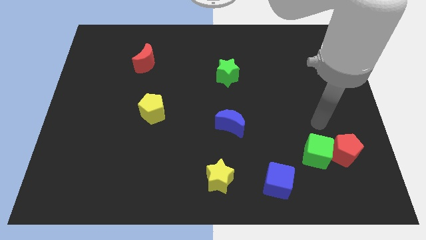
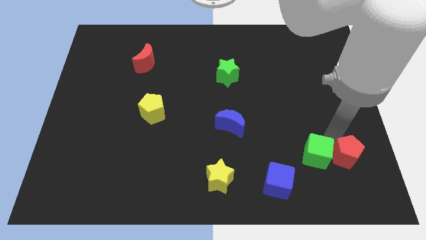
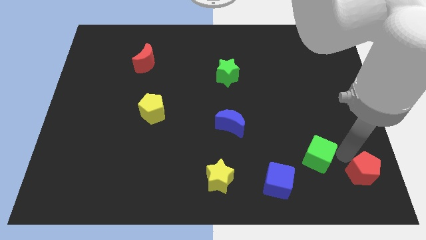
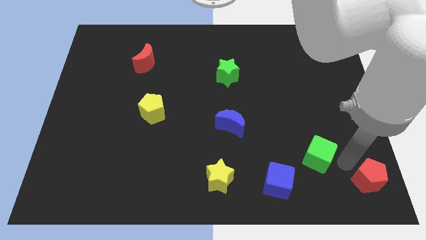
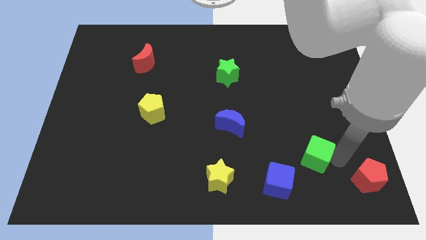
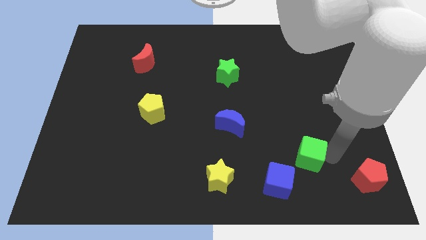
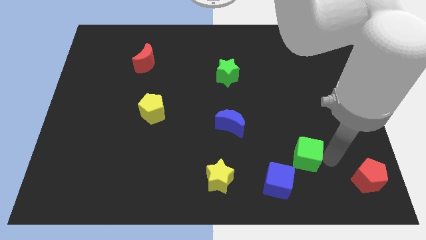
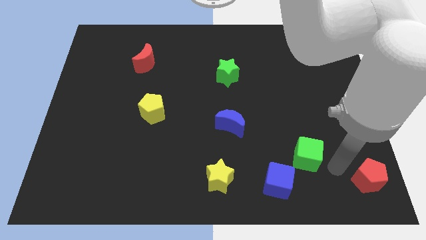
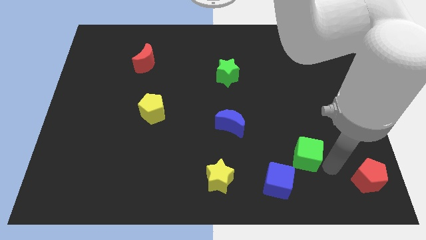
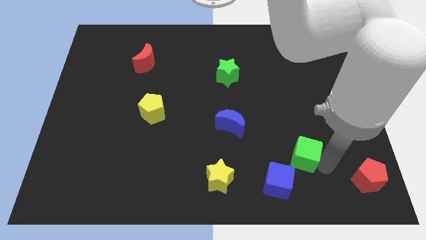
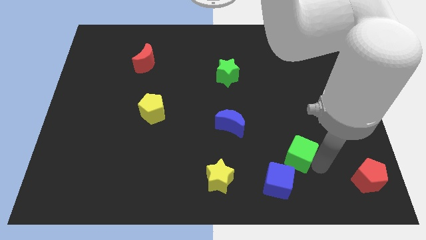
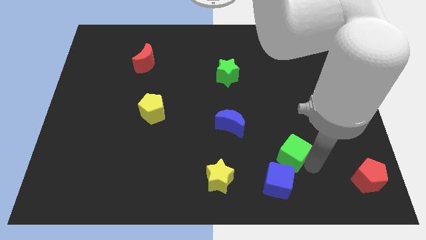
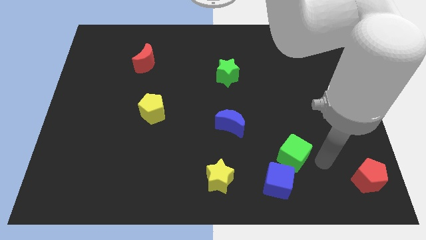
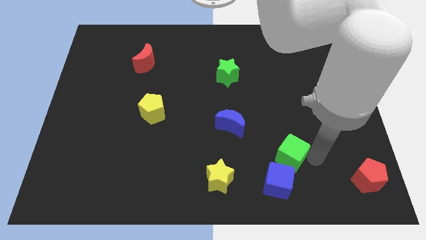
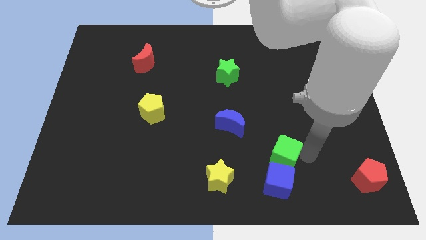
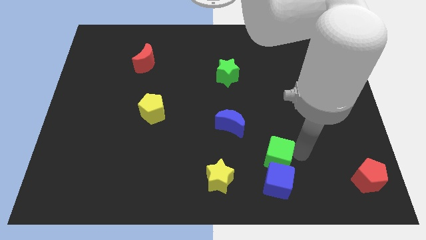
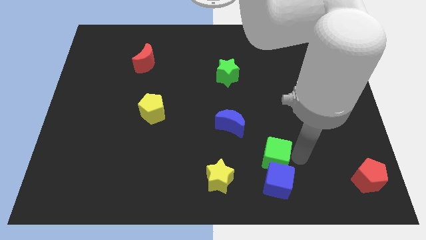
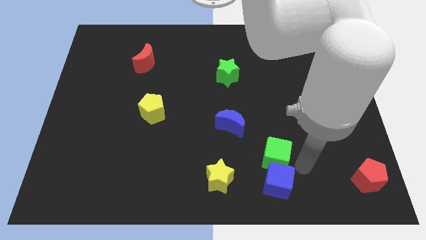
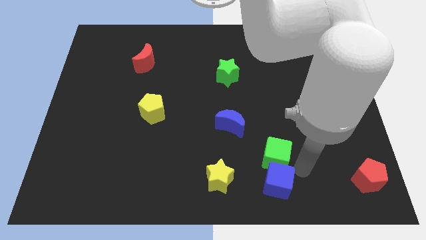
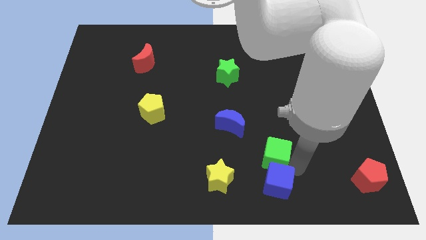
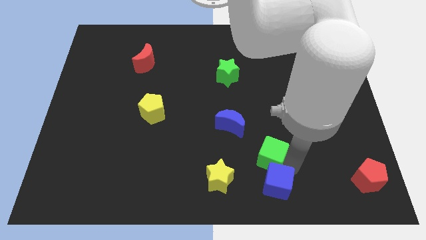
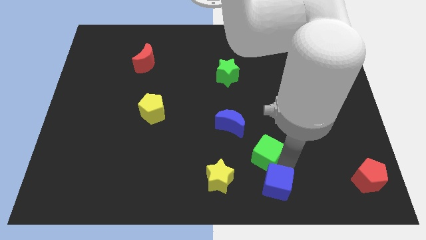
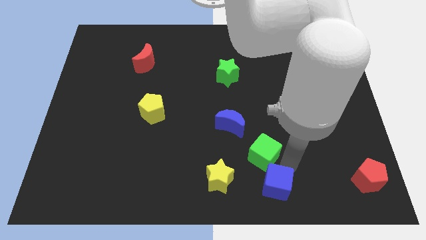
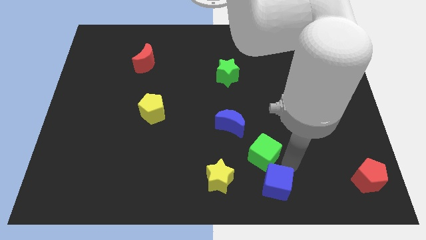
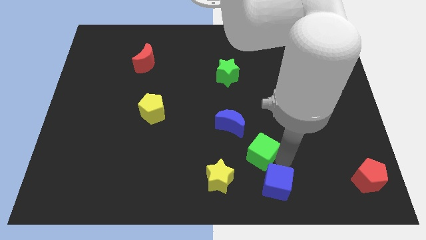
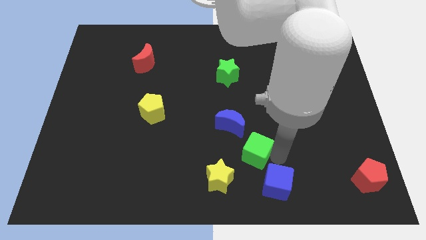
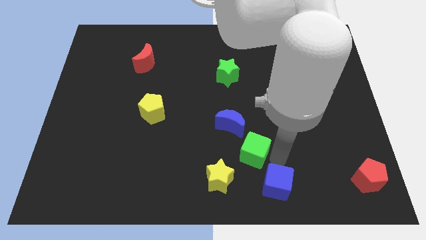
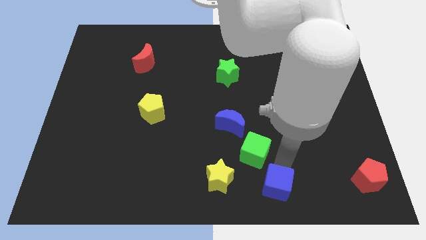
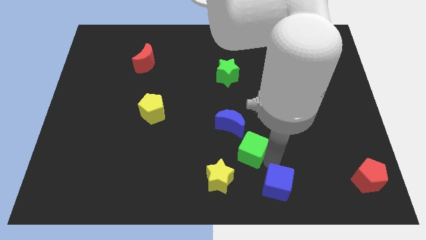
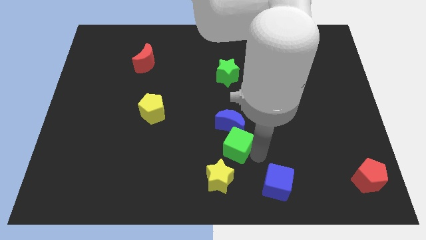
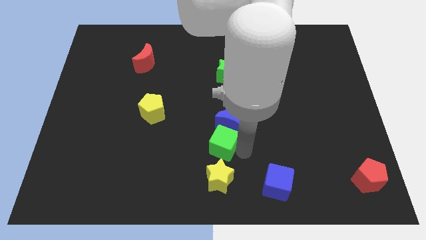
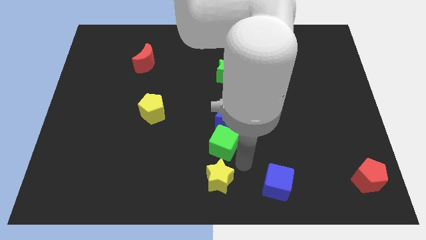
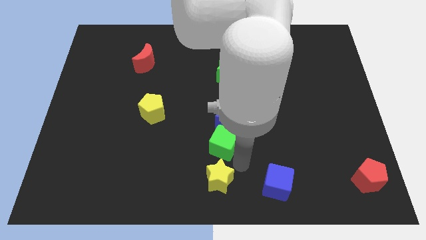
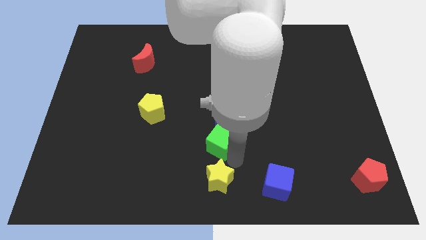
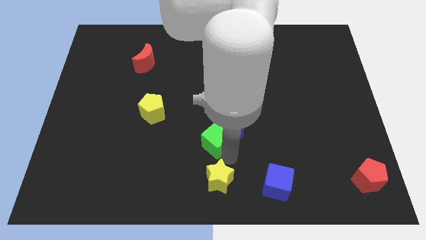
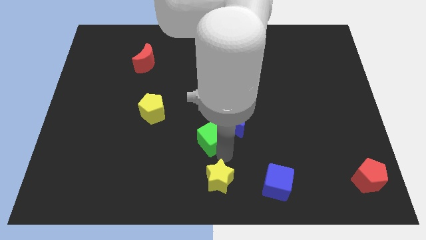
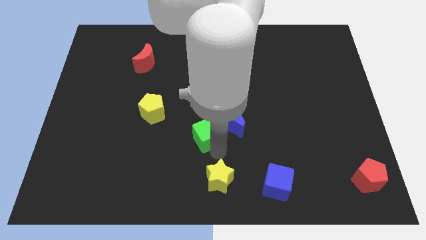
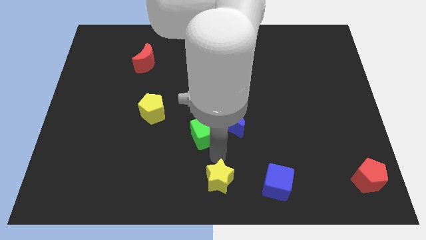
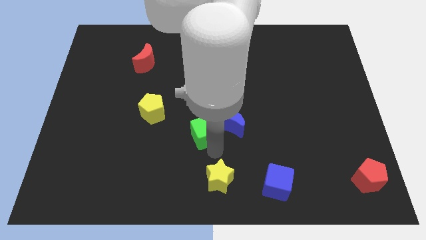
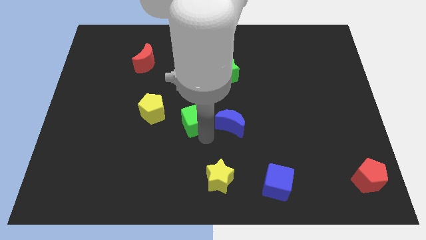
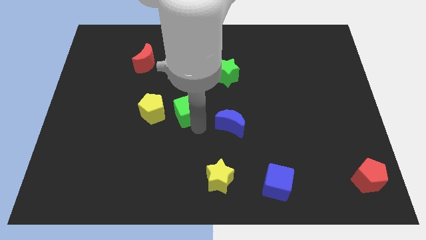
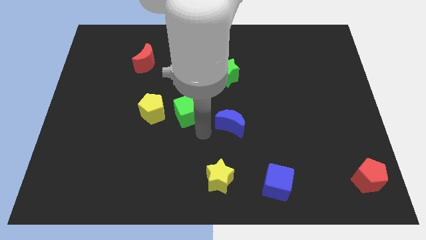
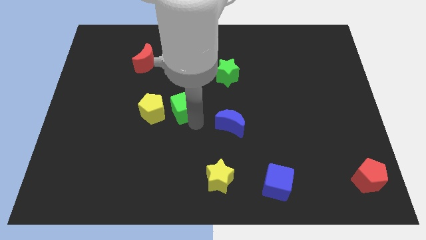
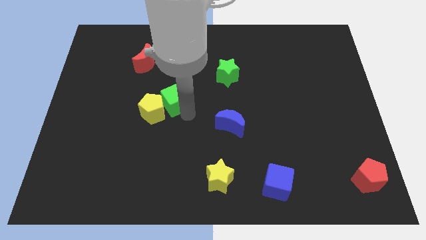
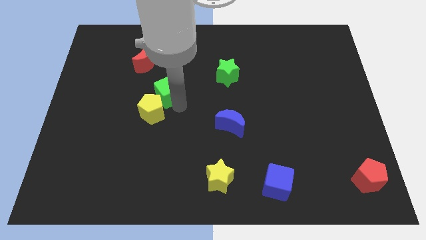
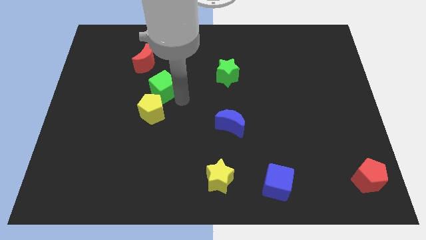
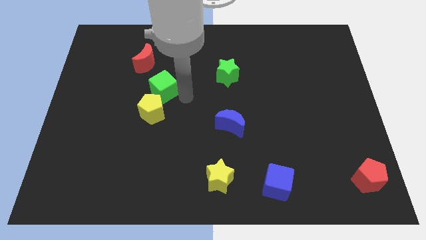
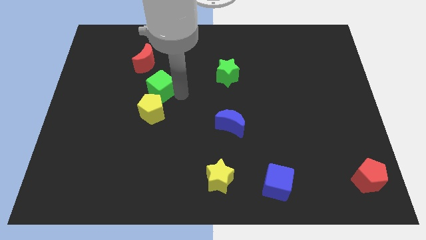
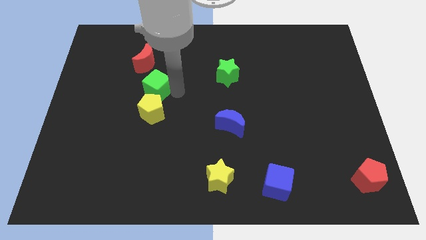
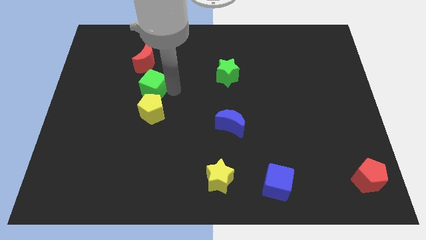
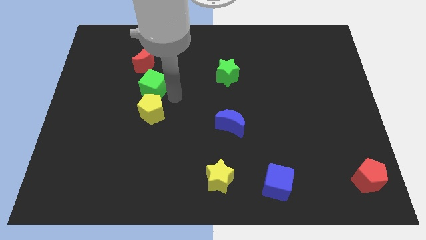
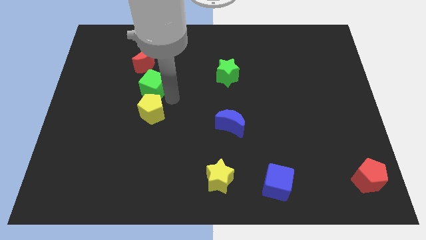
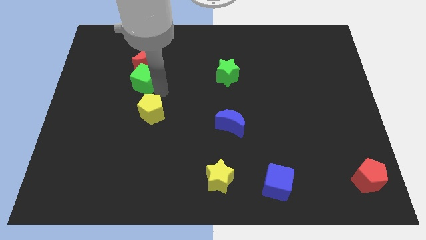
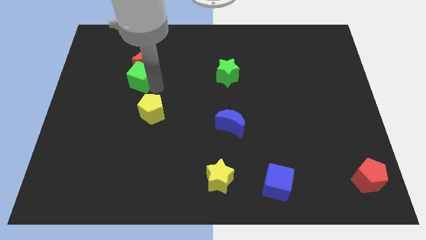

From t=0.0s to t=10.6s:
put the green cube to the bottom left of the red moon

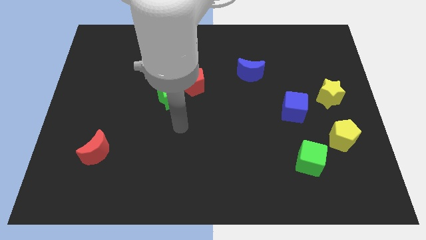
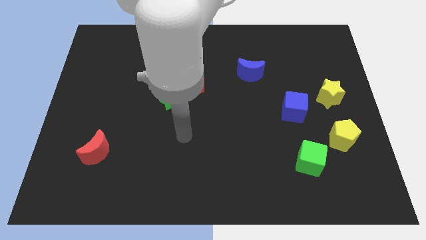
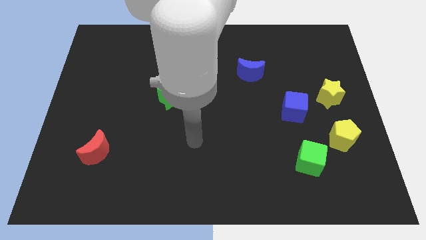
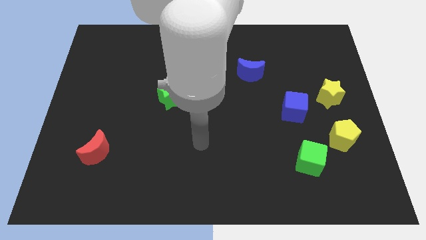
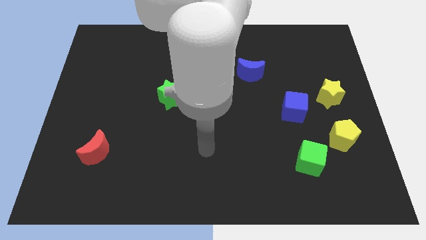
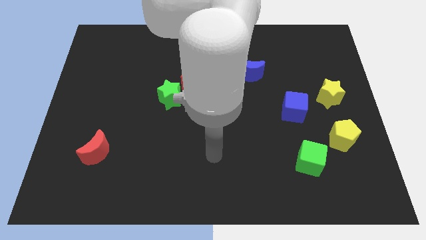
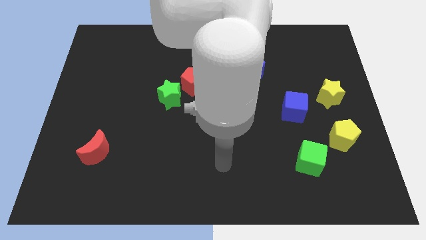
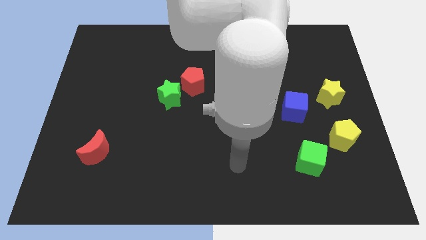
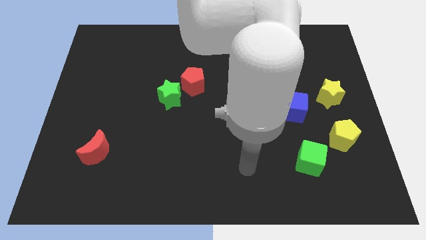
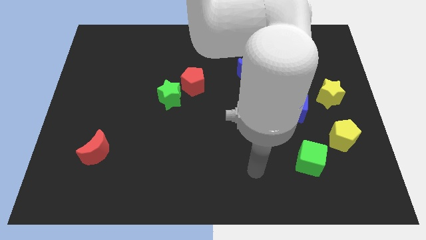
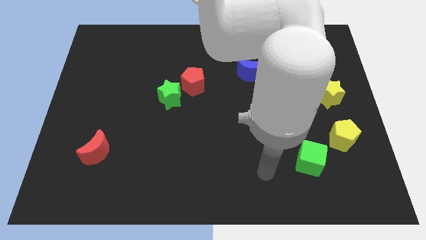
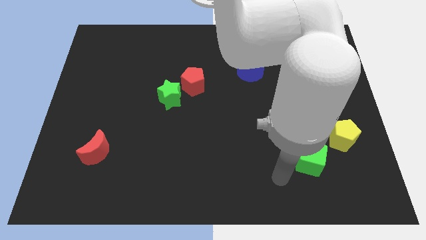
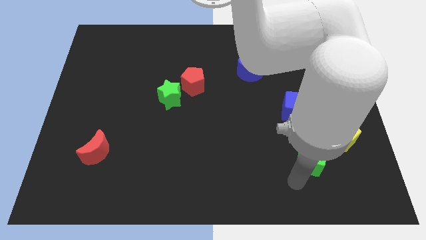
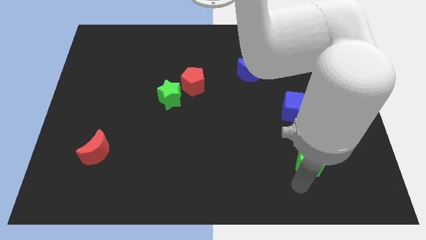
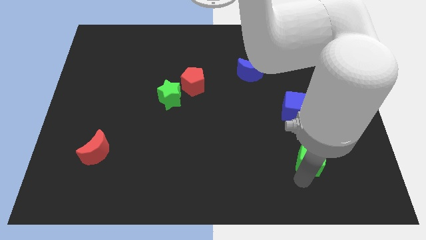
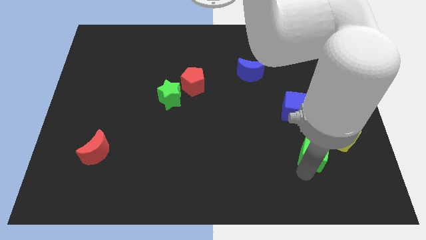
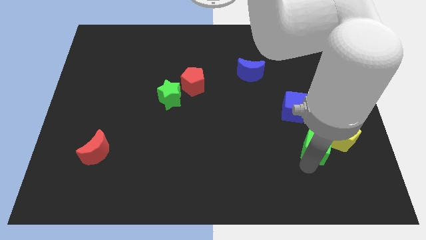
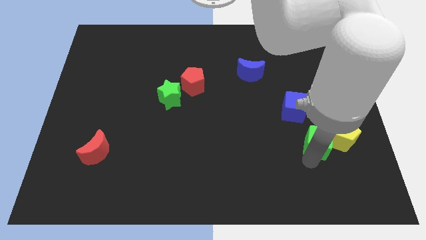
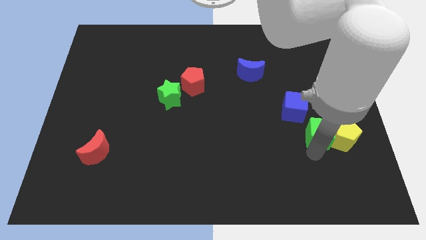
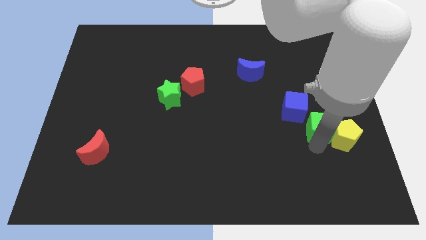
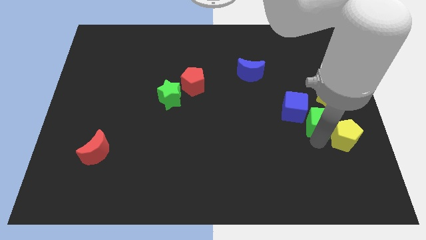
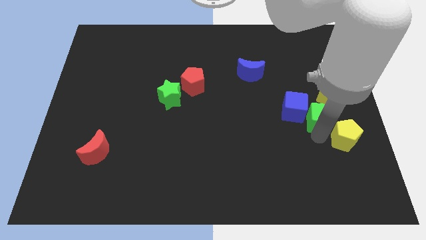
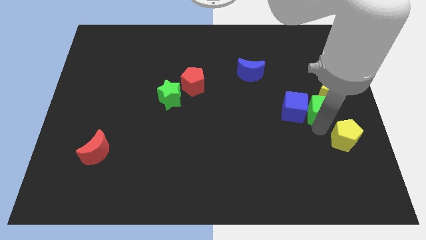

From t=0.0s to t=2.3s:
push the green cube to the top right of the blue cube
